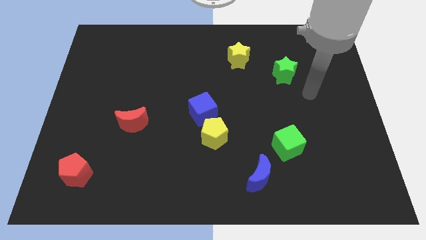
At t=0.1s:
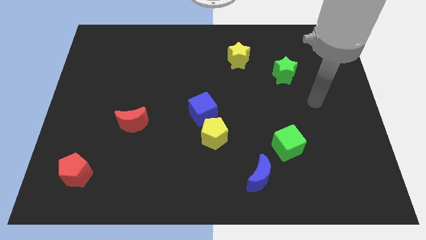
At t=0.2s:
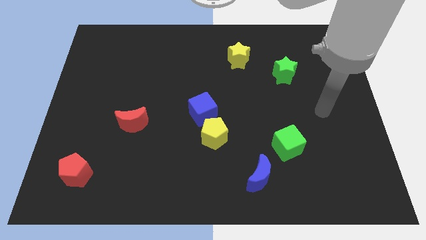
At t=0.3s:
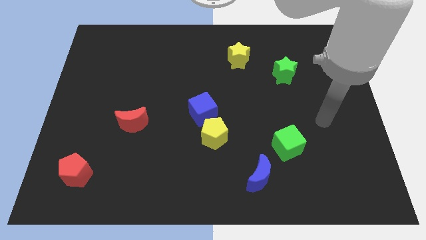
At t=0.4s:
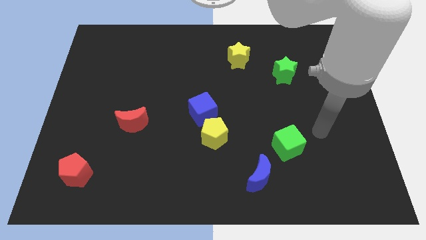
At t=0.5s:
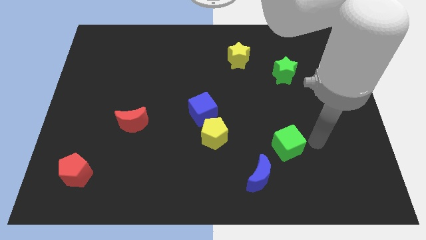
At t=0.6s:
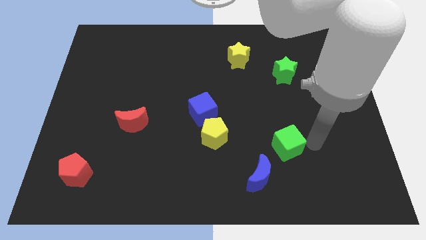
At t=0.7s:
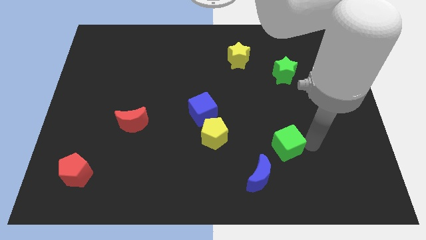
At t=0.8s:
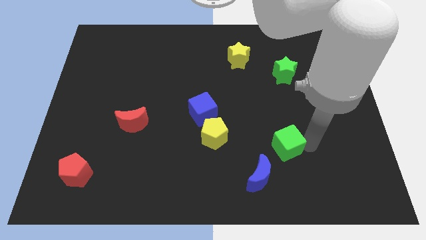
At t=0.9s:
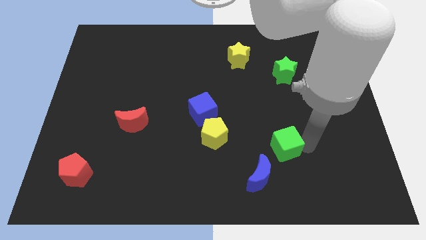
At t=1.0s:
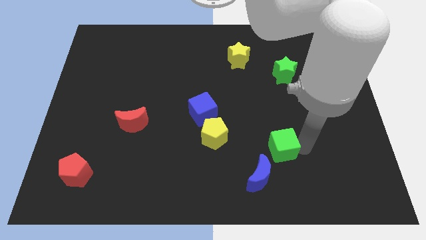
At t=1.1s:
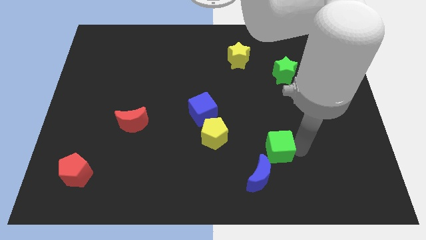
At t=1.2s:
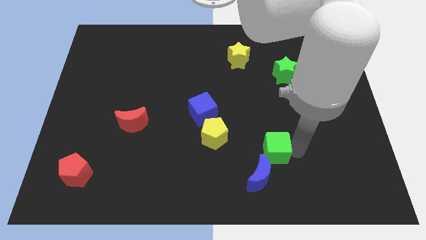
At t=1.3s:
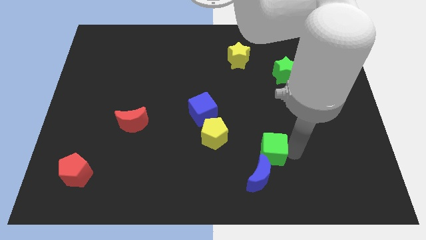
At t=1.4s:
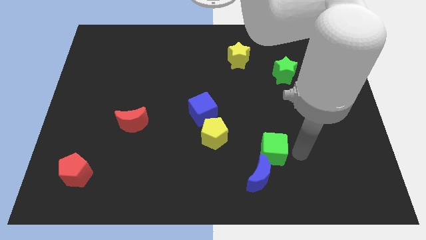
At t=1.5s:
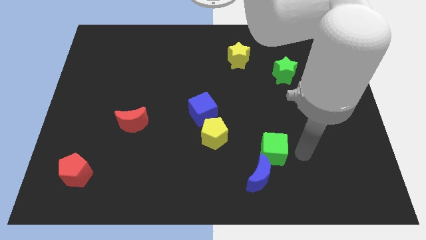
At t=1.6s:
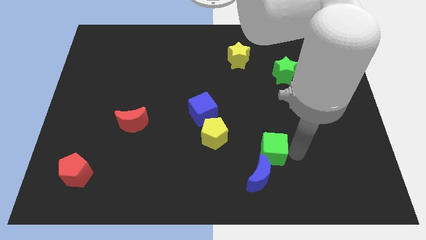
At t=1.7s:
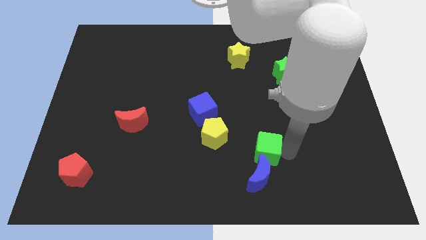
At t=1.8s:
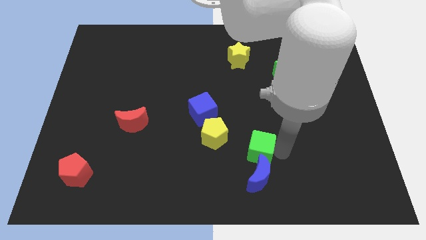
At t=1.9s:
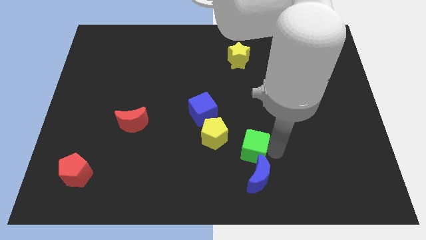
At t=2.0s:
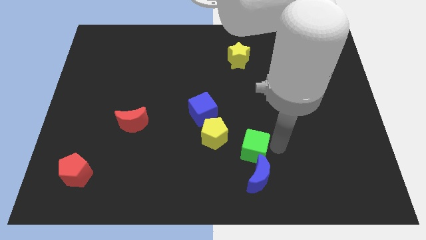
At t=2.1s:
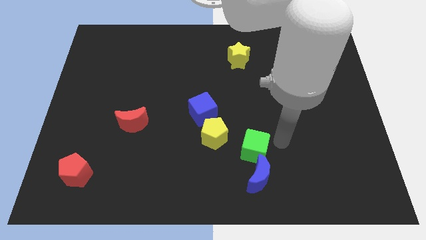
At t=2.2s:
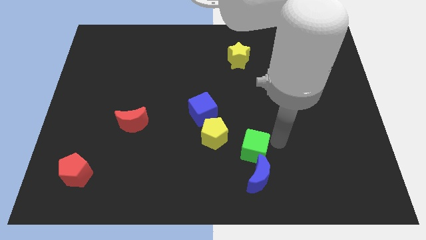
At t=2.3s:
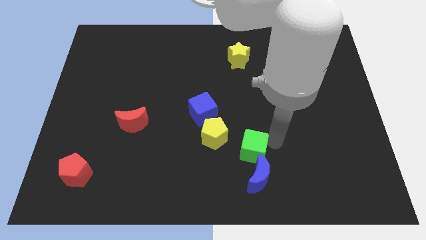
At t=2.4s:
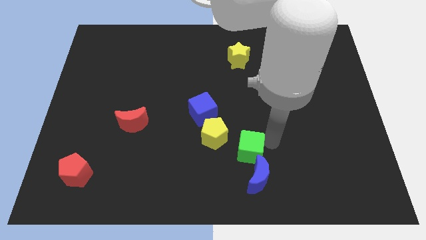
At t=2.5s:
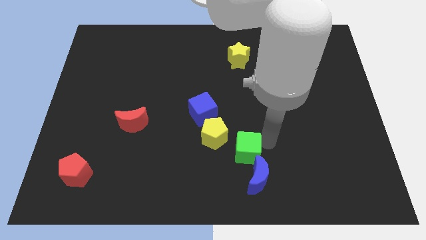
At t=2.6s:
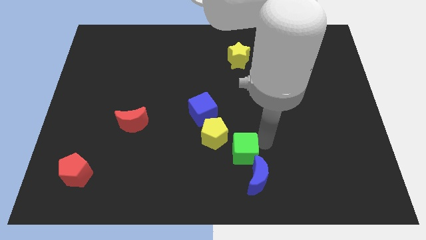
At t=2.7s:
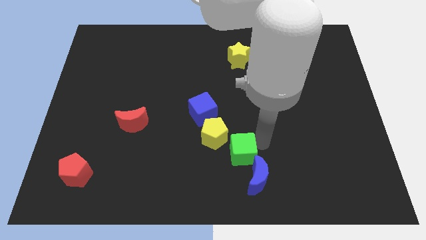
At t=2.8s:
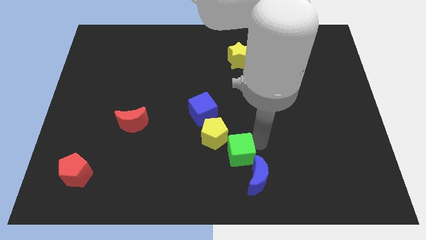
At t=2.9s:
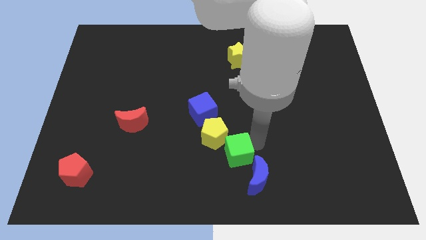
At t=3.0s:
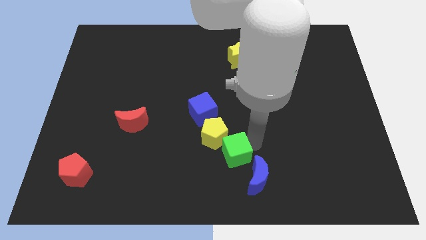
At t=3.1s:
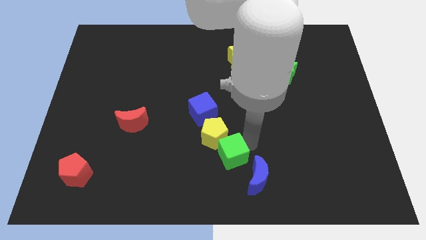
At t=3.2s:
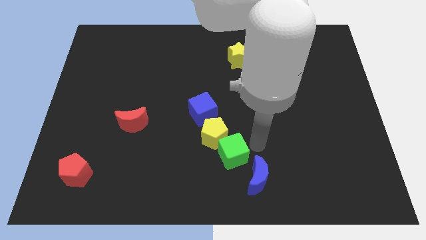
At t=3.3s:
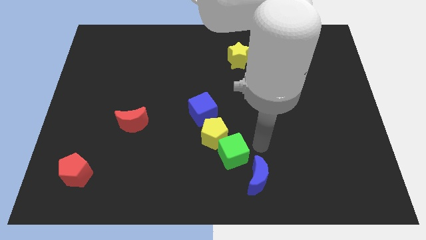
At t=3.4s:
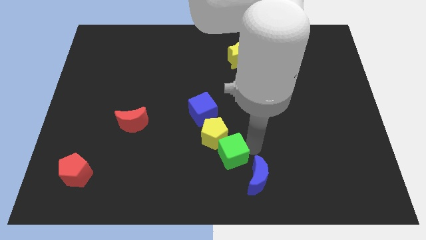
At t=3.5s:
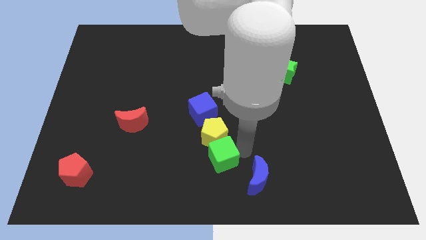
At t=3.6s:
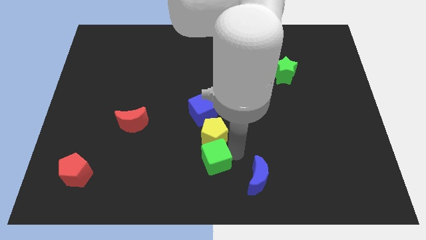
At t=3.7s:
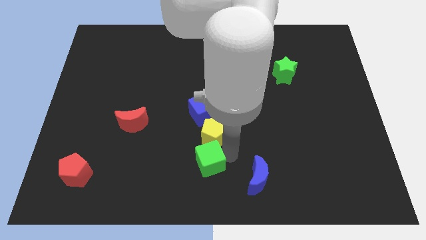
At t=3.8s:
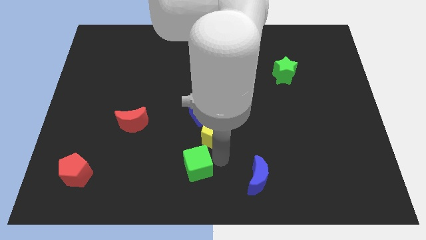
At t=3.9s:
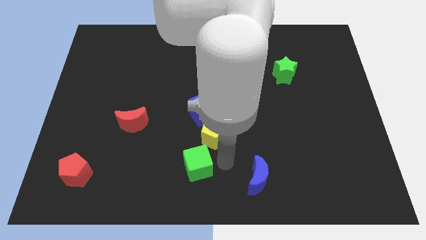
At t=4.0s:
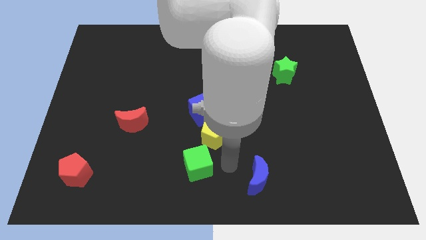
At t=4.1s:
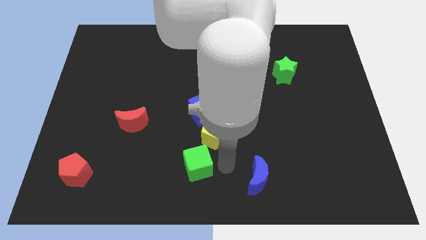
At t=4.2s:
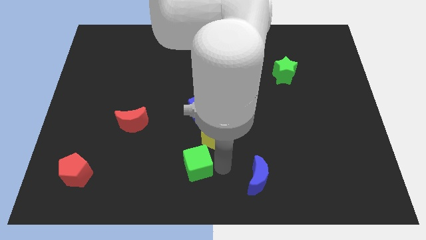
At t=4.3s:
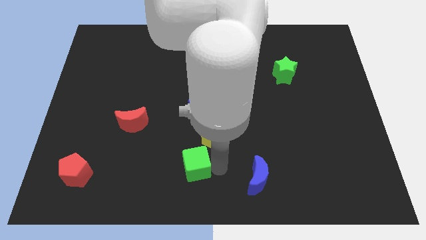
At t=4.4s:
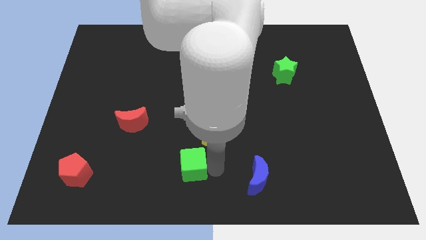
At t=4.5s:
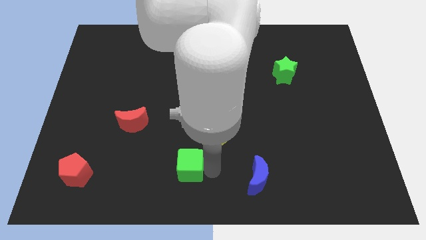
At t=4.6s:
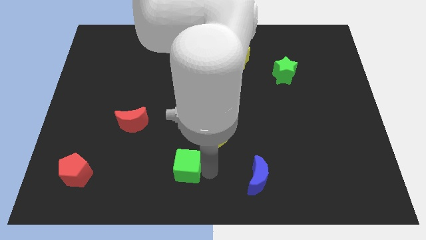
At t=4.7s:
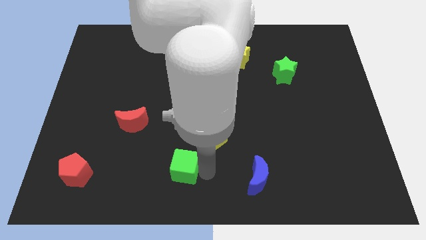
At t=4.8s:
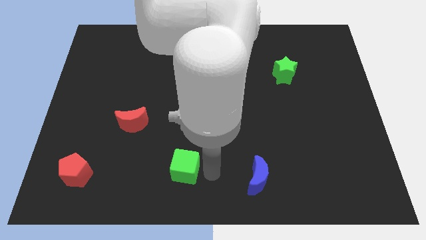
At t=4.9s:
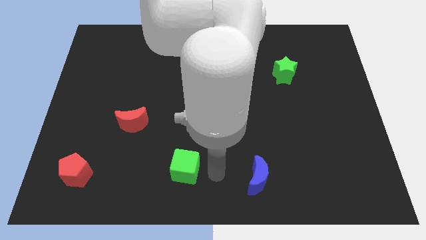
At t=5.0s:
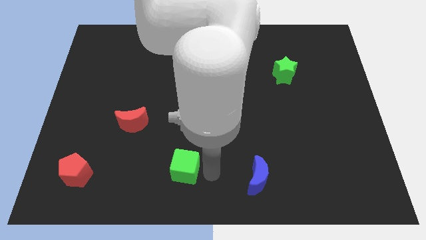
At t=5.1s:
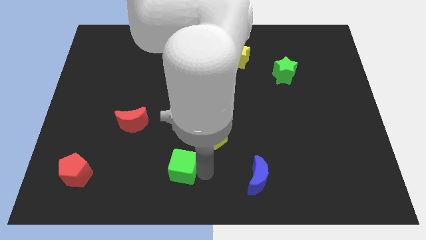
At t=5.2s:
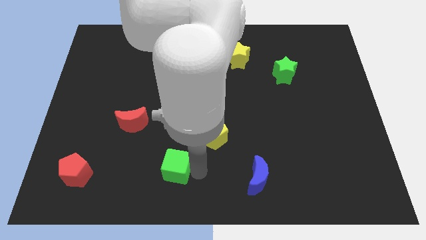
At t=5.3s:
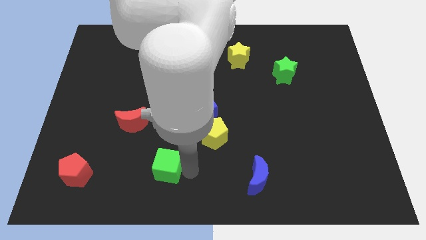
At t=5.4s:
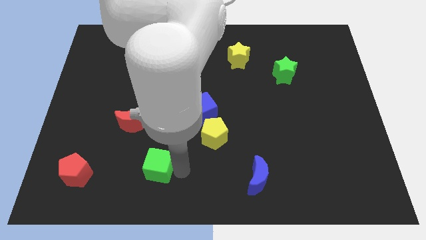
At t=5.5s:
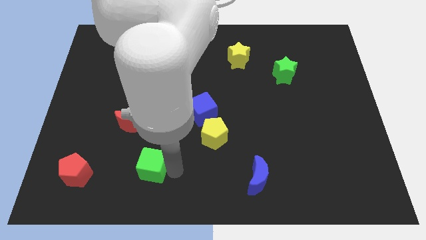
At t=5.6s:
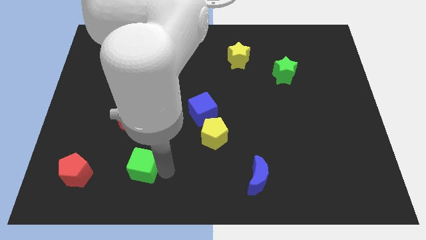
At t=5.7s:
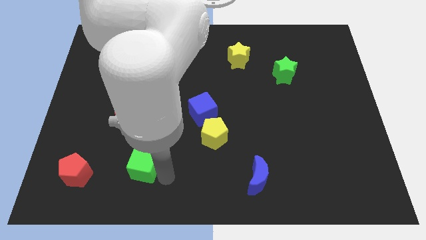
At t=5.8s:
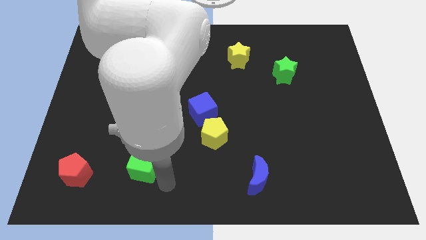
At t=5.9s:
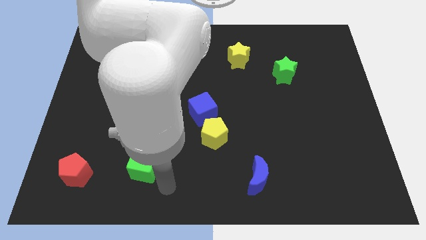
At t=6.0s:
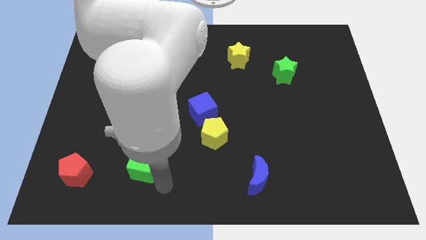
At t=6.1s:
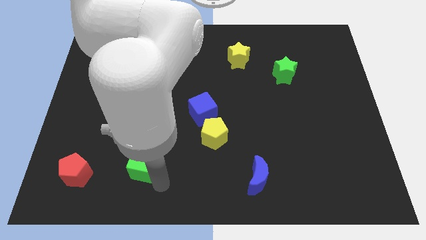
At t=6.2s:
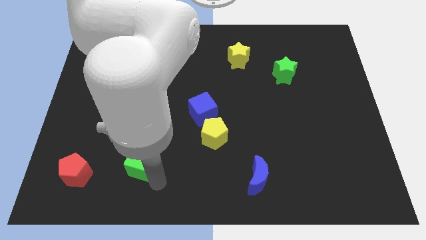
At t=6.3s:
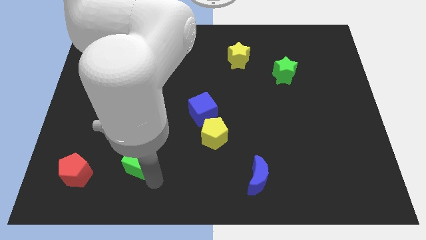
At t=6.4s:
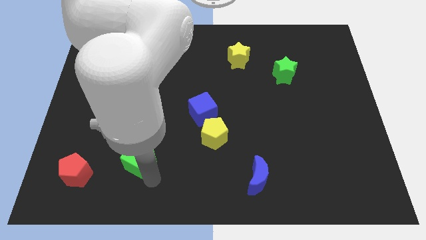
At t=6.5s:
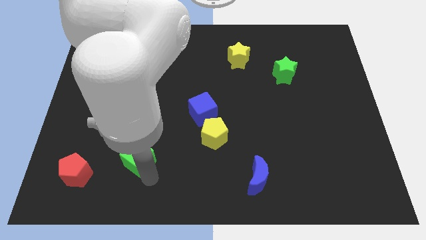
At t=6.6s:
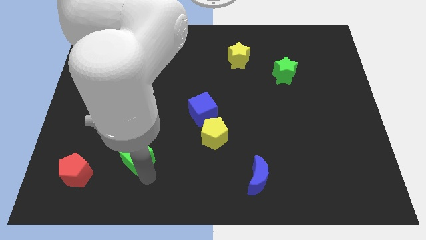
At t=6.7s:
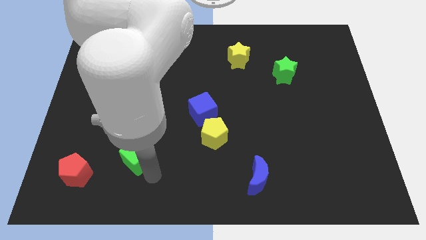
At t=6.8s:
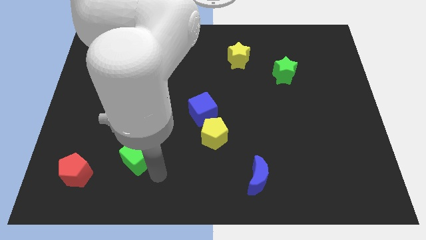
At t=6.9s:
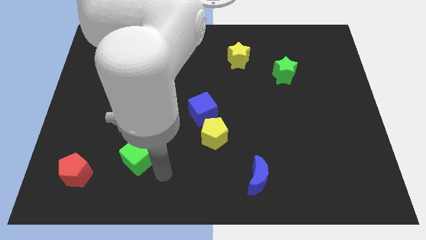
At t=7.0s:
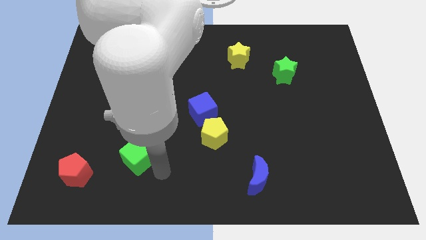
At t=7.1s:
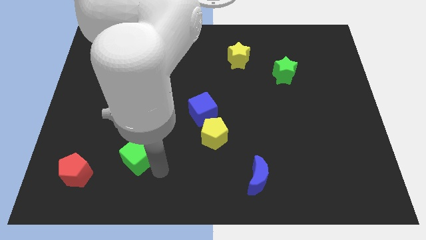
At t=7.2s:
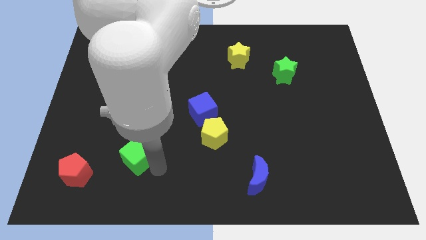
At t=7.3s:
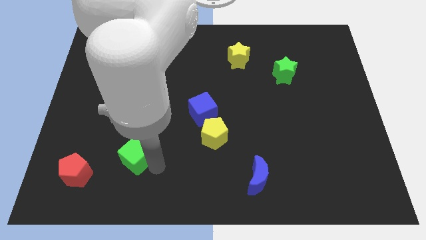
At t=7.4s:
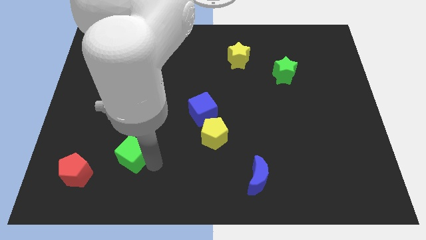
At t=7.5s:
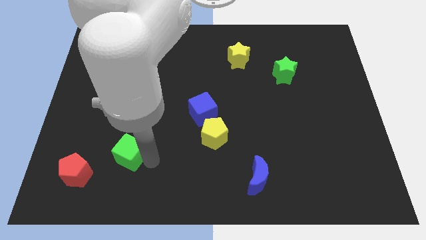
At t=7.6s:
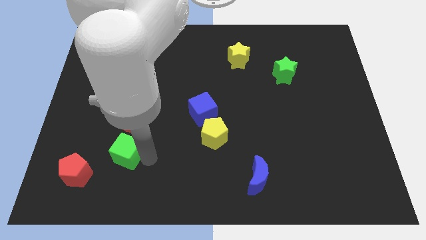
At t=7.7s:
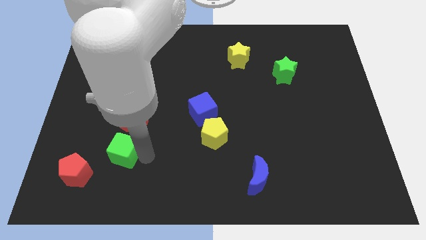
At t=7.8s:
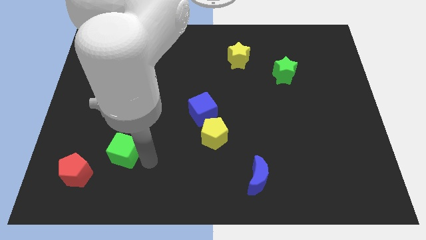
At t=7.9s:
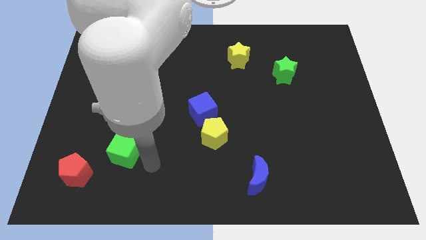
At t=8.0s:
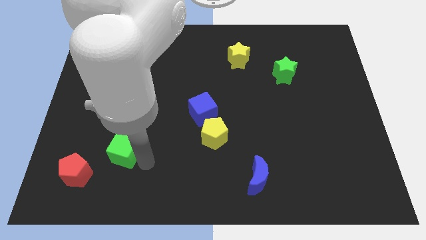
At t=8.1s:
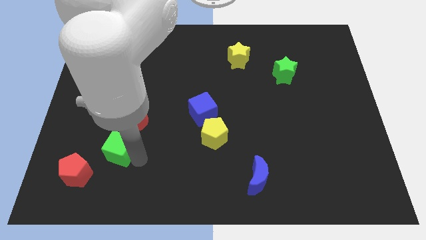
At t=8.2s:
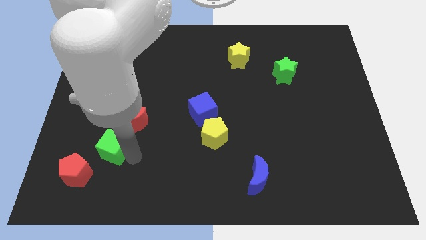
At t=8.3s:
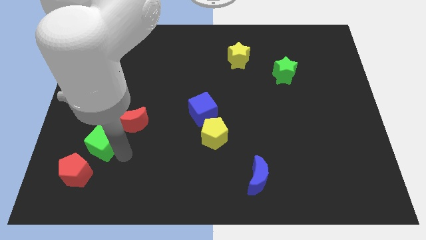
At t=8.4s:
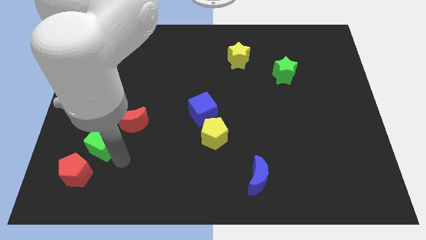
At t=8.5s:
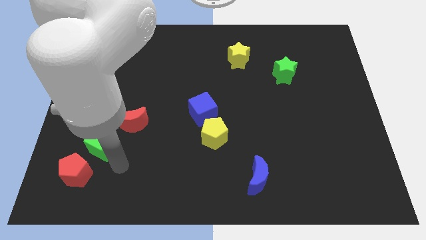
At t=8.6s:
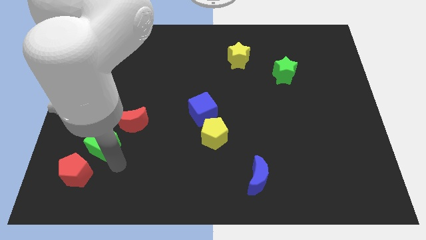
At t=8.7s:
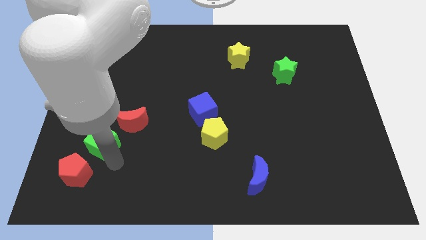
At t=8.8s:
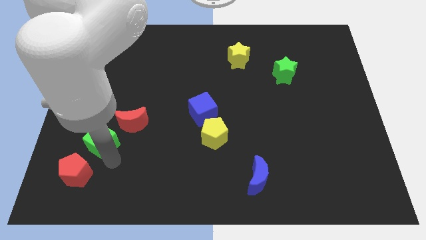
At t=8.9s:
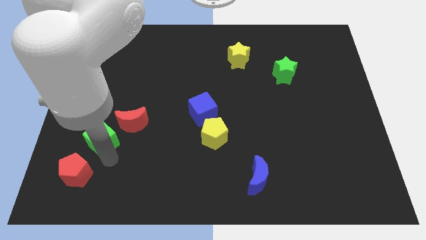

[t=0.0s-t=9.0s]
move the green cube just left of the red moon
